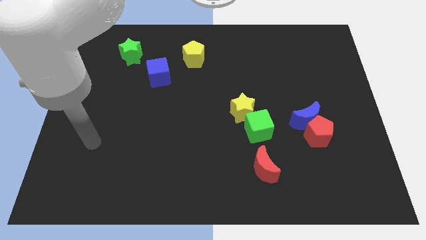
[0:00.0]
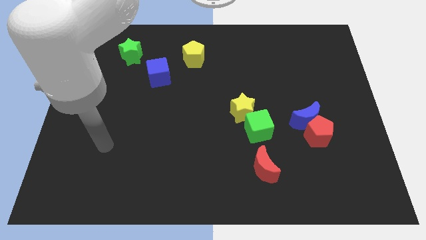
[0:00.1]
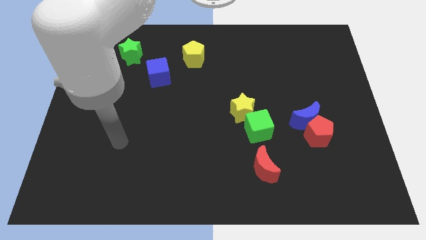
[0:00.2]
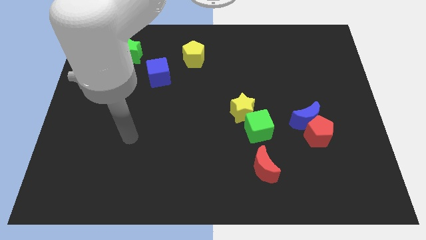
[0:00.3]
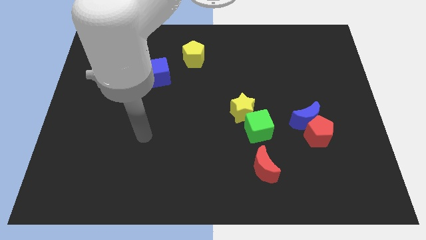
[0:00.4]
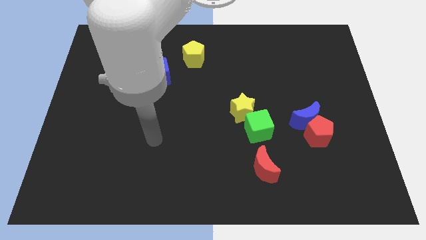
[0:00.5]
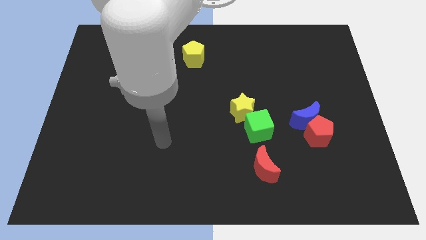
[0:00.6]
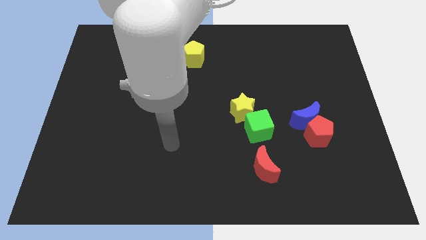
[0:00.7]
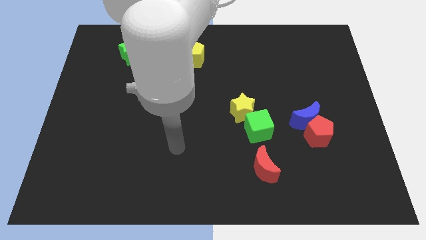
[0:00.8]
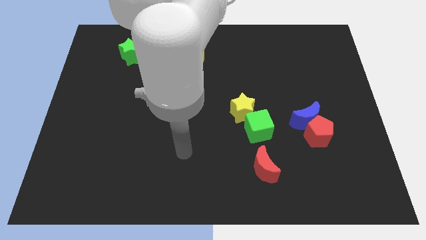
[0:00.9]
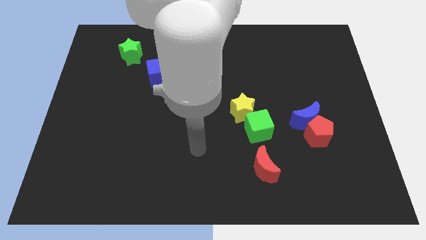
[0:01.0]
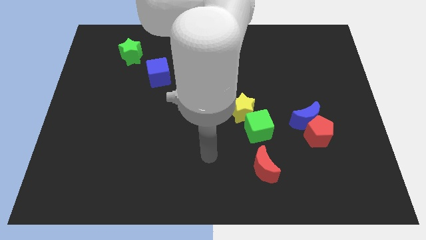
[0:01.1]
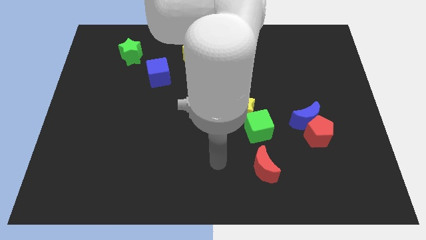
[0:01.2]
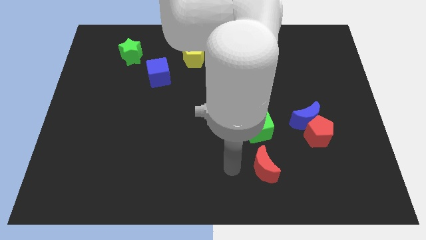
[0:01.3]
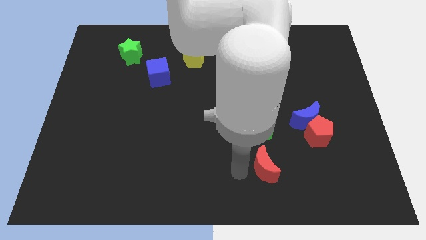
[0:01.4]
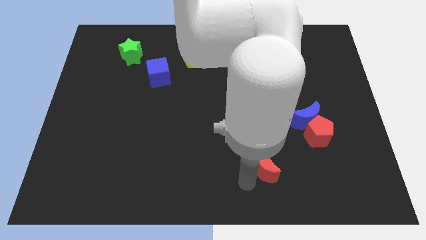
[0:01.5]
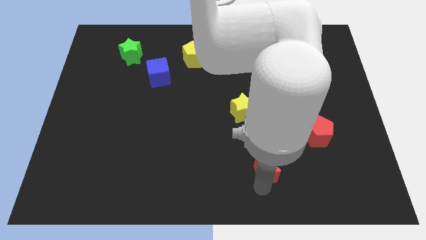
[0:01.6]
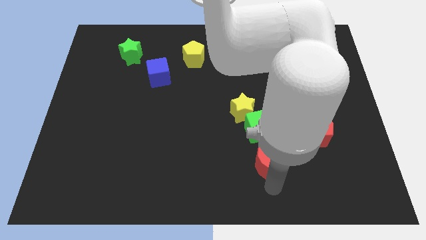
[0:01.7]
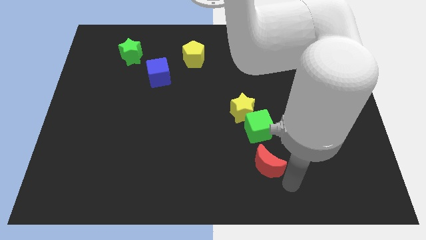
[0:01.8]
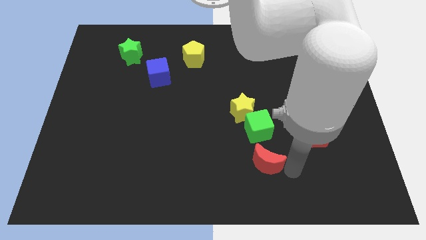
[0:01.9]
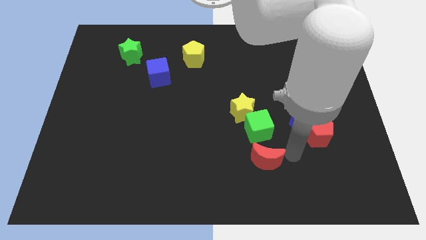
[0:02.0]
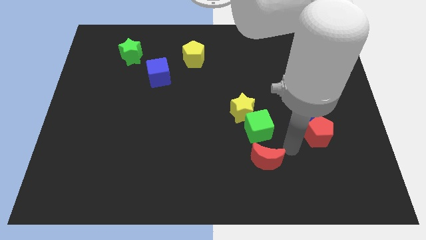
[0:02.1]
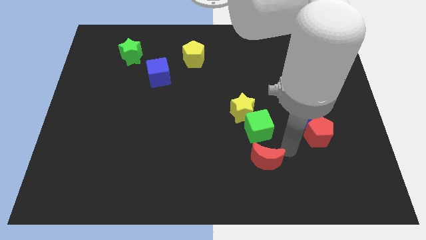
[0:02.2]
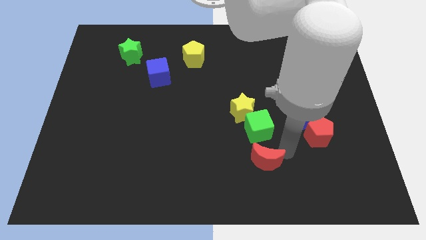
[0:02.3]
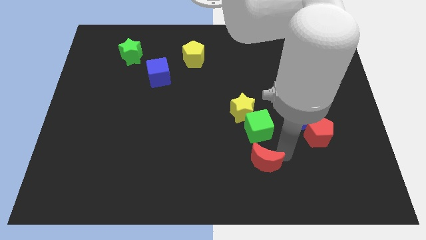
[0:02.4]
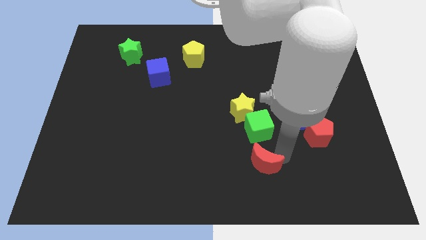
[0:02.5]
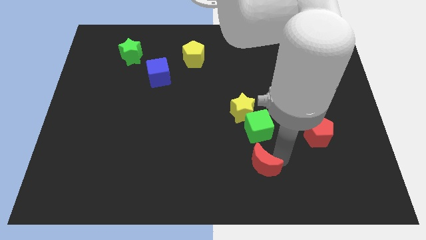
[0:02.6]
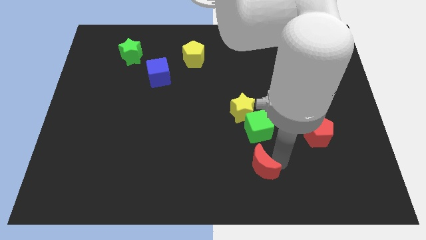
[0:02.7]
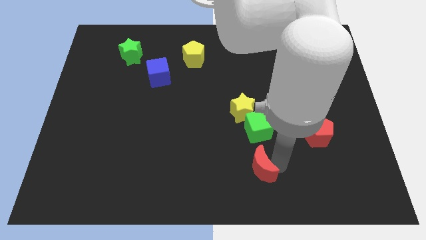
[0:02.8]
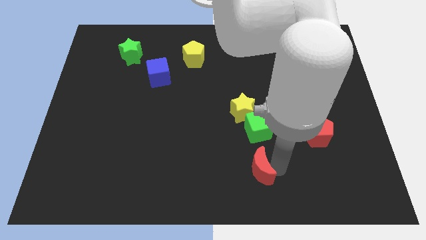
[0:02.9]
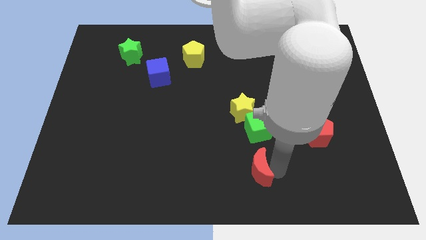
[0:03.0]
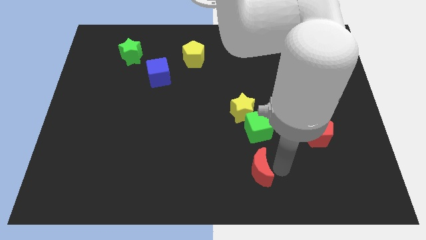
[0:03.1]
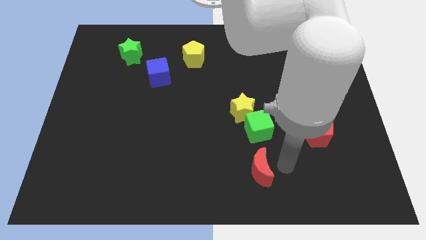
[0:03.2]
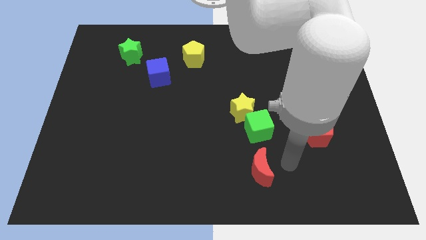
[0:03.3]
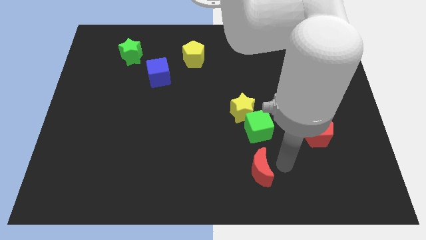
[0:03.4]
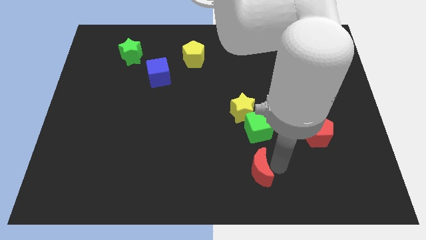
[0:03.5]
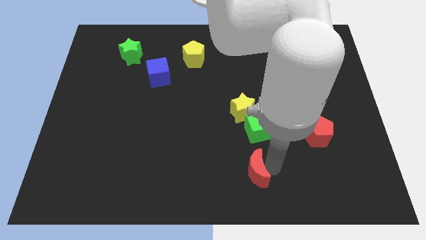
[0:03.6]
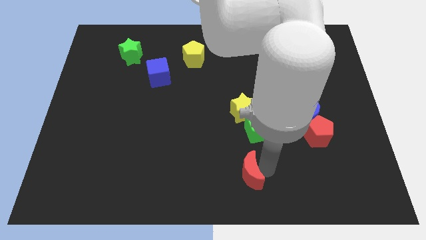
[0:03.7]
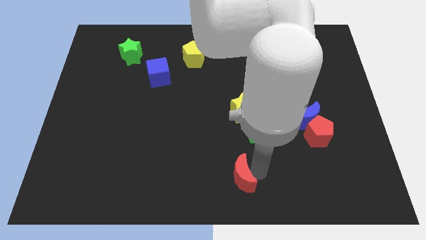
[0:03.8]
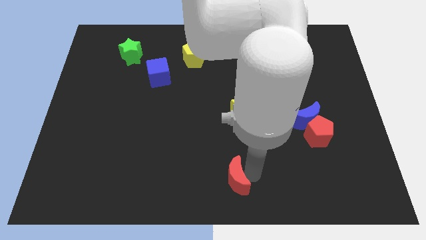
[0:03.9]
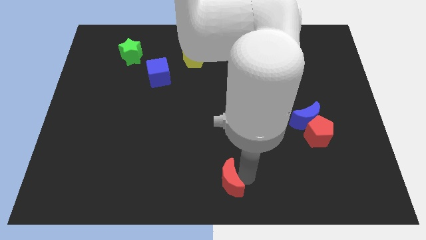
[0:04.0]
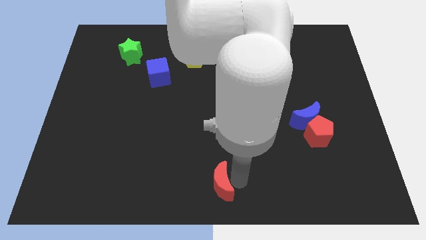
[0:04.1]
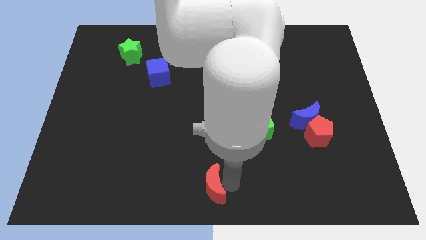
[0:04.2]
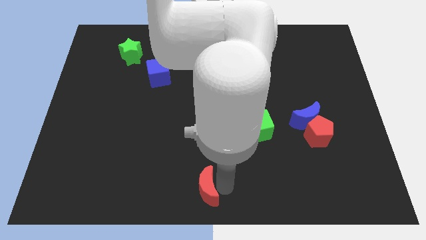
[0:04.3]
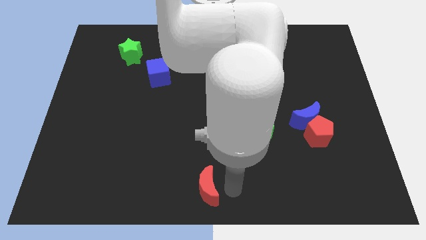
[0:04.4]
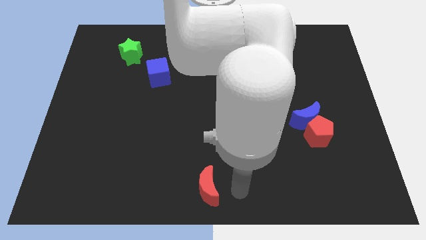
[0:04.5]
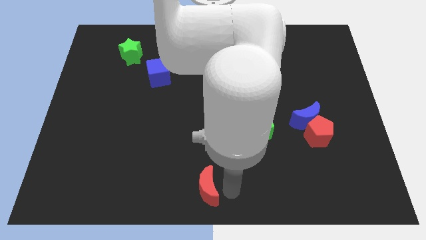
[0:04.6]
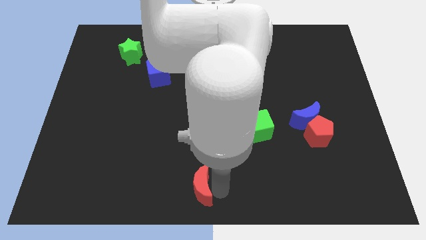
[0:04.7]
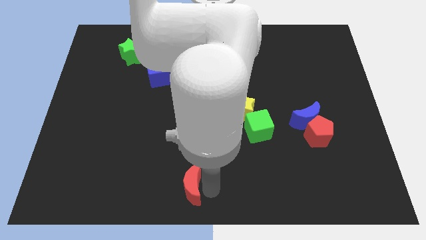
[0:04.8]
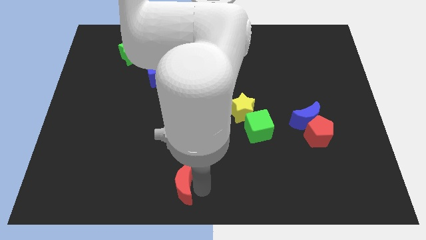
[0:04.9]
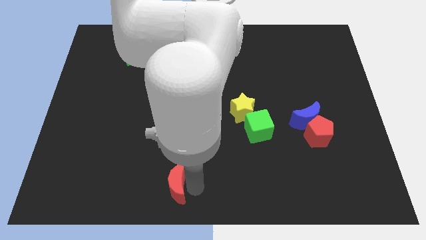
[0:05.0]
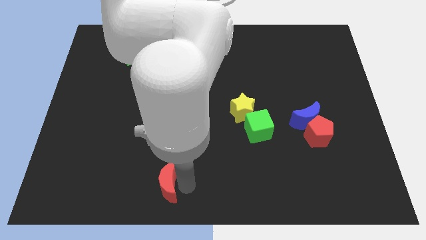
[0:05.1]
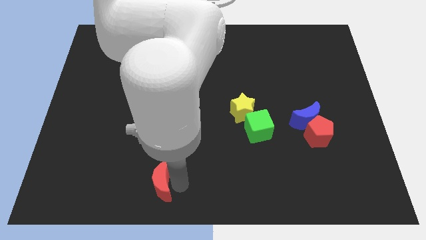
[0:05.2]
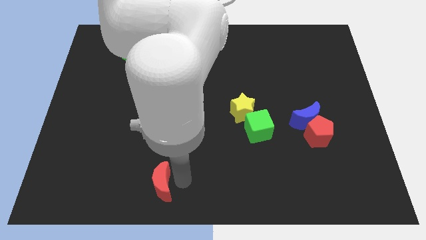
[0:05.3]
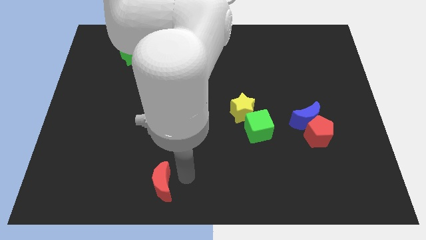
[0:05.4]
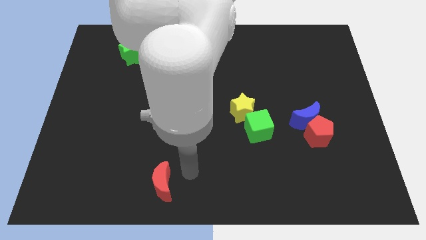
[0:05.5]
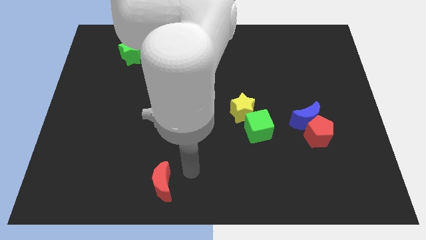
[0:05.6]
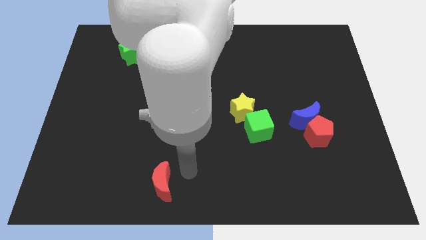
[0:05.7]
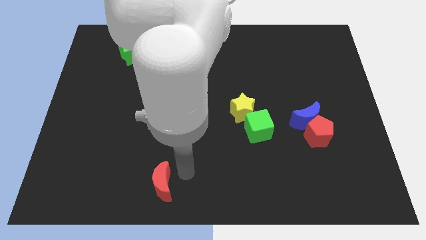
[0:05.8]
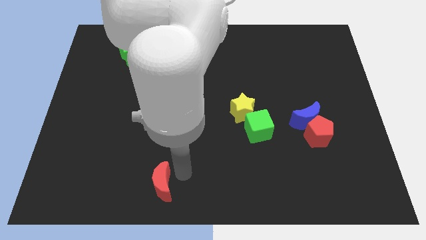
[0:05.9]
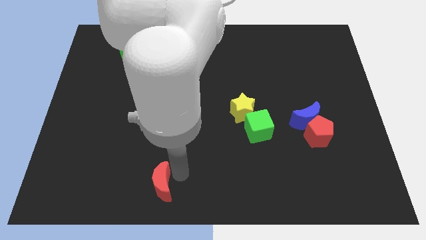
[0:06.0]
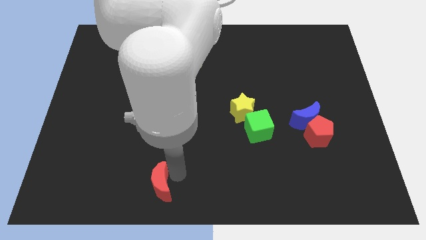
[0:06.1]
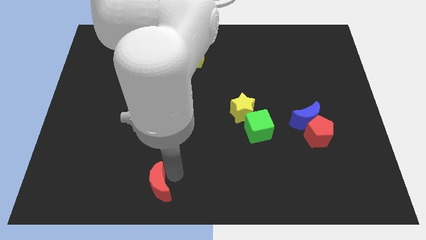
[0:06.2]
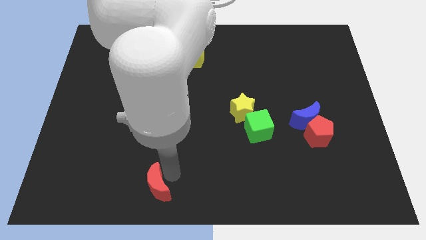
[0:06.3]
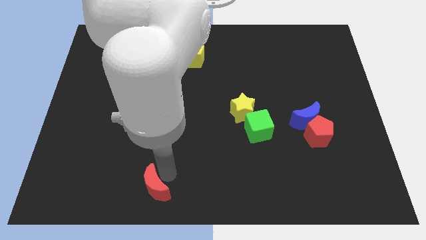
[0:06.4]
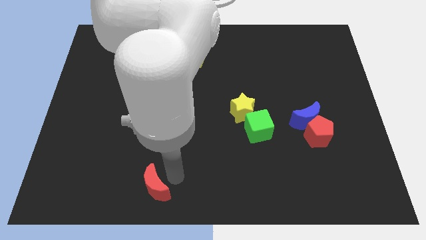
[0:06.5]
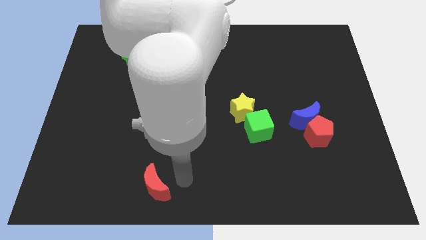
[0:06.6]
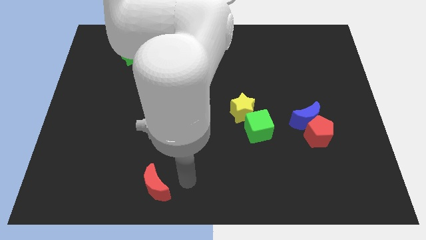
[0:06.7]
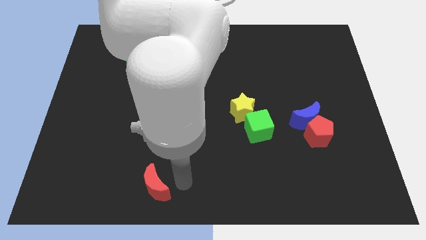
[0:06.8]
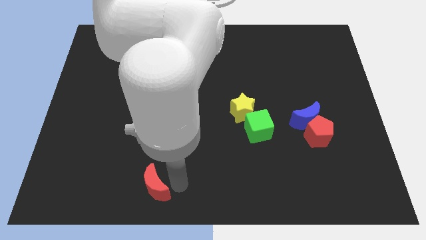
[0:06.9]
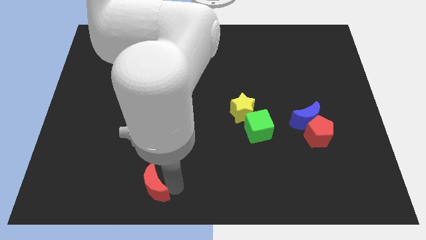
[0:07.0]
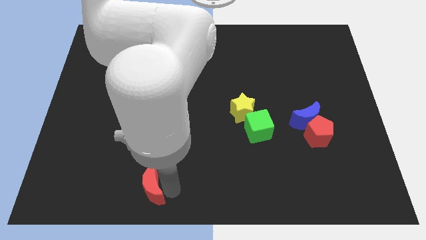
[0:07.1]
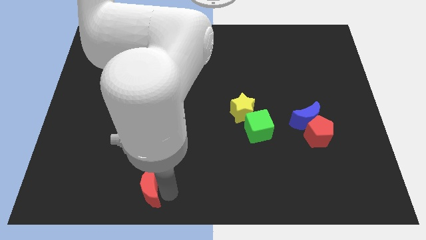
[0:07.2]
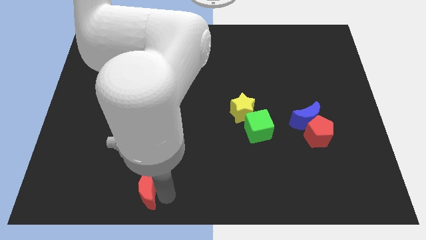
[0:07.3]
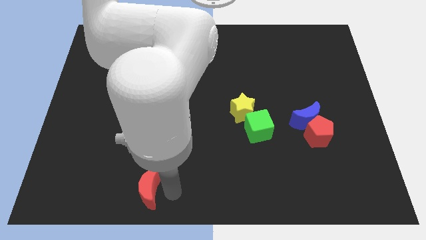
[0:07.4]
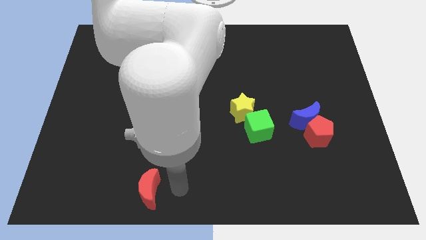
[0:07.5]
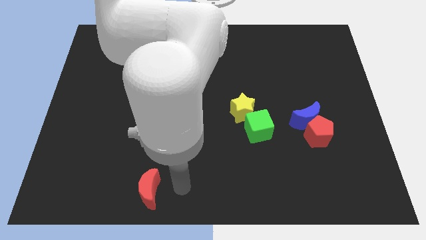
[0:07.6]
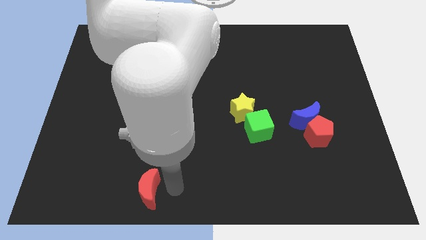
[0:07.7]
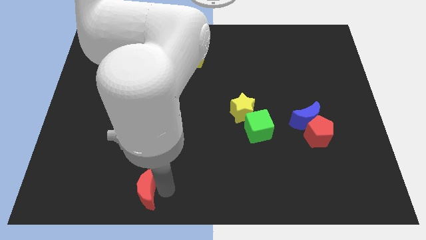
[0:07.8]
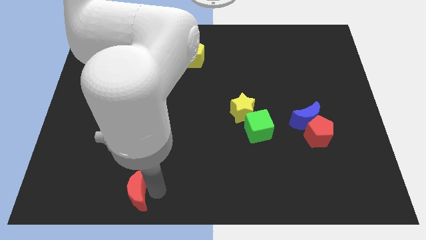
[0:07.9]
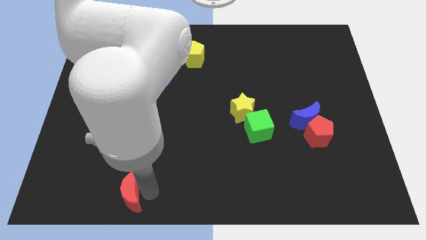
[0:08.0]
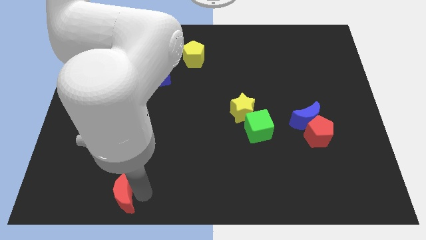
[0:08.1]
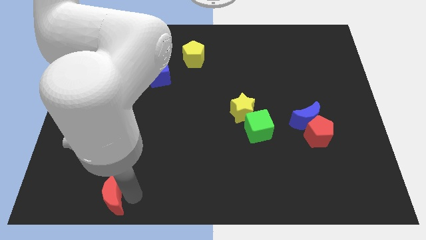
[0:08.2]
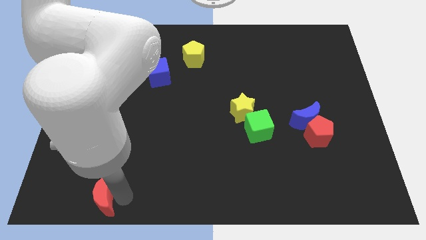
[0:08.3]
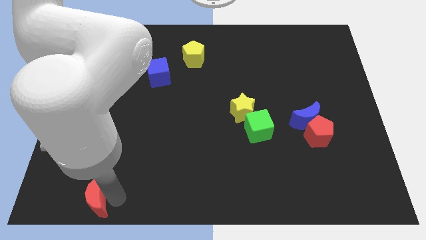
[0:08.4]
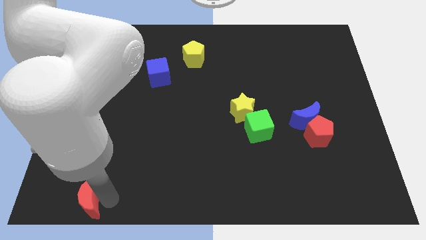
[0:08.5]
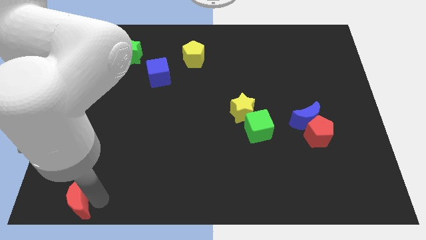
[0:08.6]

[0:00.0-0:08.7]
slide the red moon to the bottom left corner
